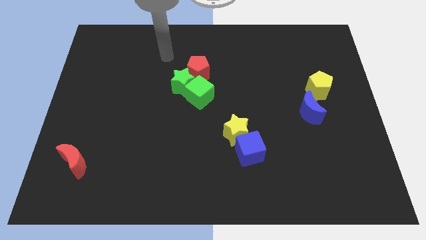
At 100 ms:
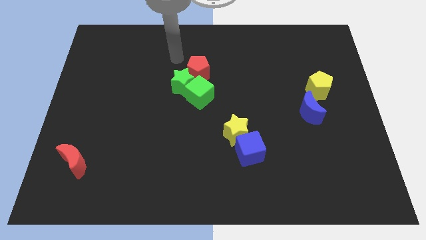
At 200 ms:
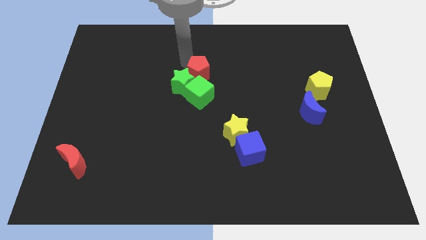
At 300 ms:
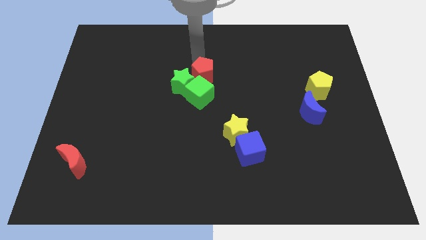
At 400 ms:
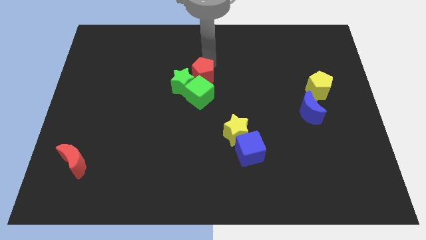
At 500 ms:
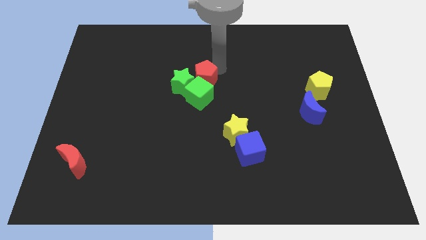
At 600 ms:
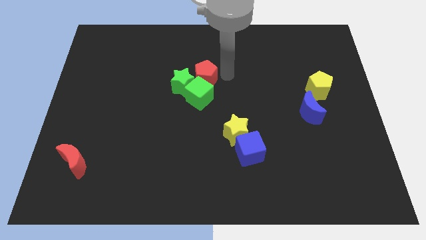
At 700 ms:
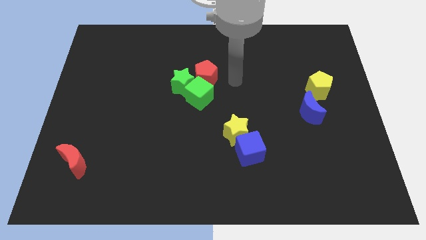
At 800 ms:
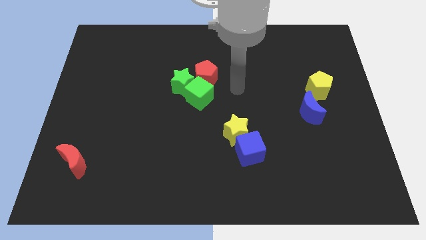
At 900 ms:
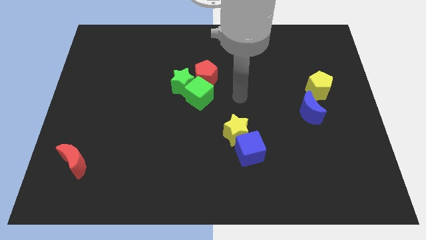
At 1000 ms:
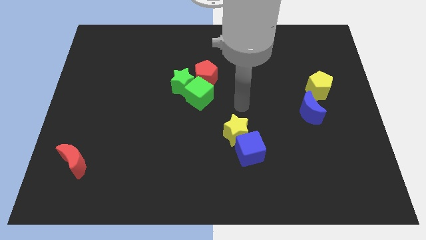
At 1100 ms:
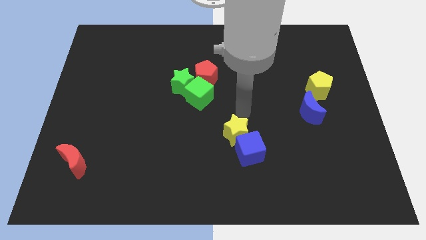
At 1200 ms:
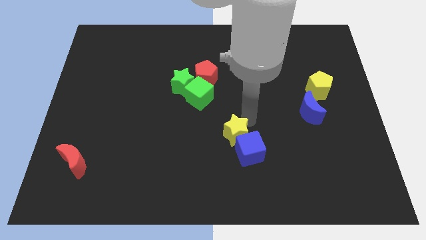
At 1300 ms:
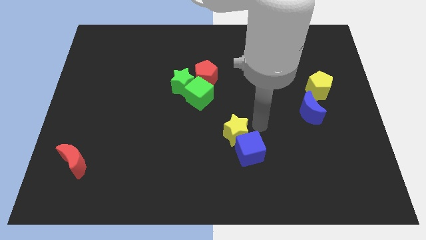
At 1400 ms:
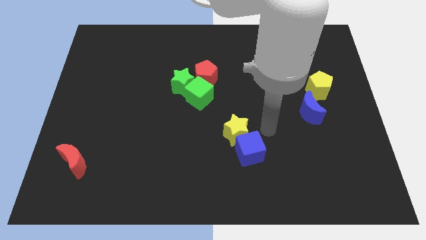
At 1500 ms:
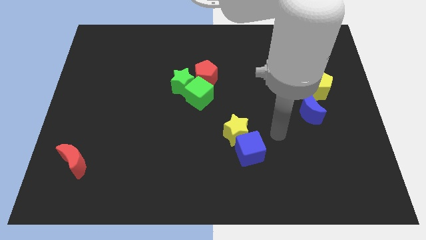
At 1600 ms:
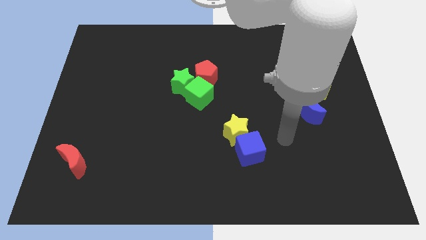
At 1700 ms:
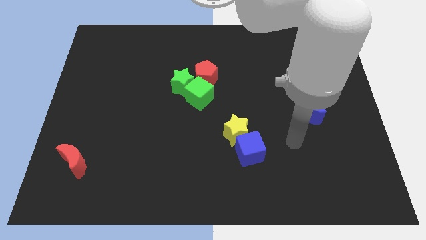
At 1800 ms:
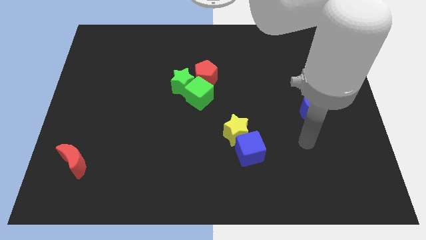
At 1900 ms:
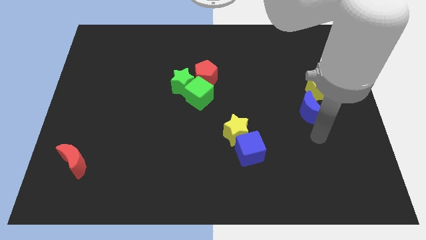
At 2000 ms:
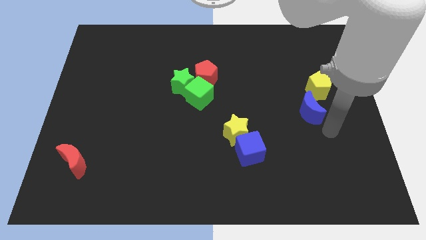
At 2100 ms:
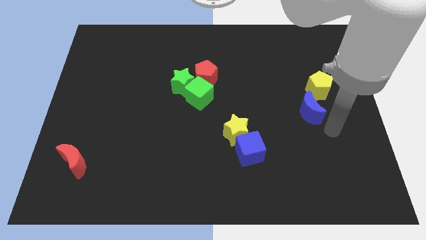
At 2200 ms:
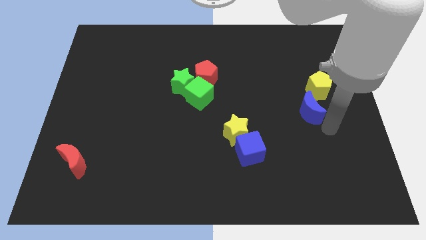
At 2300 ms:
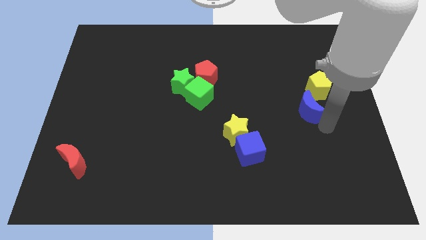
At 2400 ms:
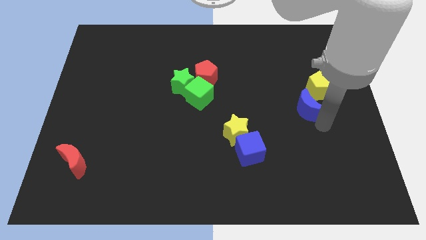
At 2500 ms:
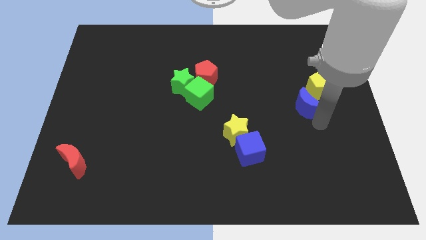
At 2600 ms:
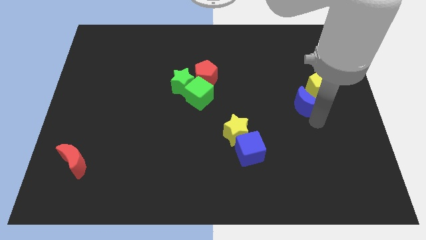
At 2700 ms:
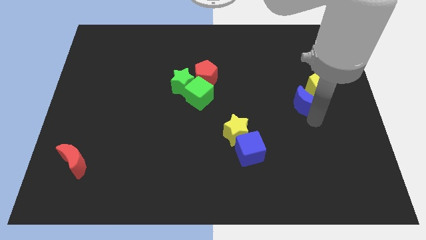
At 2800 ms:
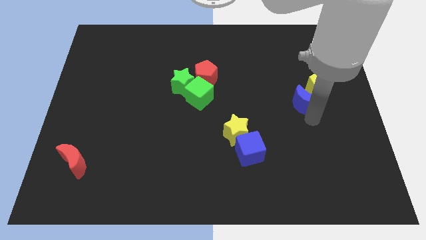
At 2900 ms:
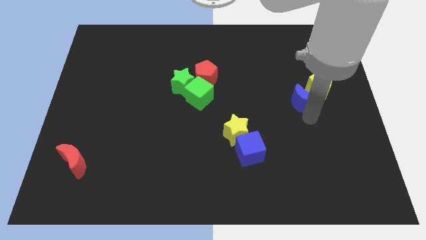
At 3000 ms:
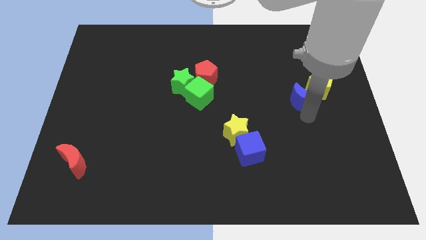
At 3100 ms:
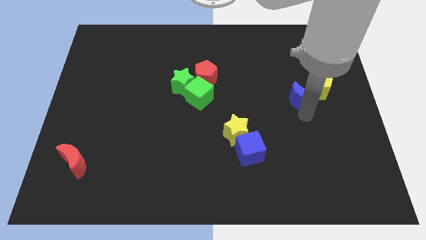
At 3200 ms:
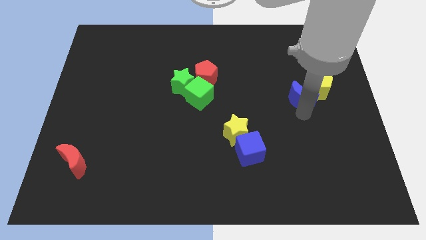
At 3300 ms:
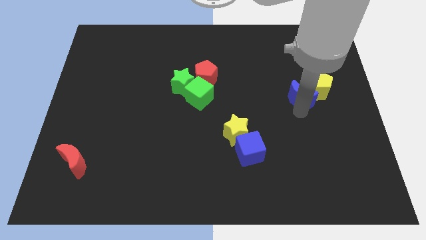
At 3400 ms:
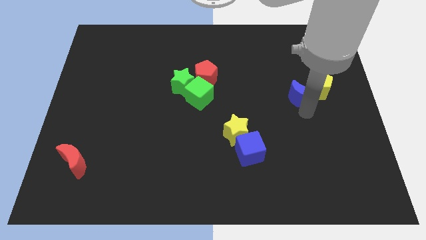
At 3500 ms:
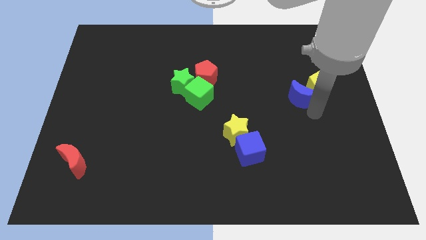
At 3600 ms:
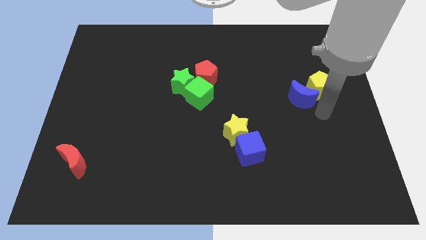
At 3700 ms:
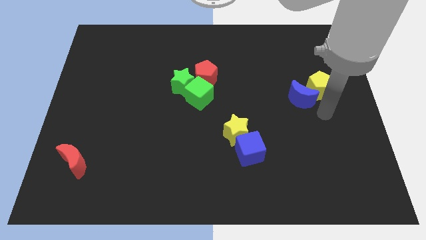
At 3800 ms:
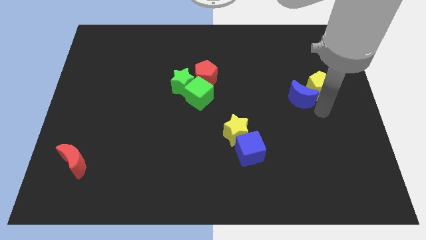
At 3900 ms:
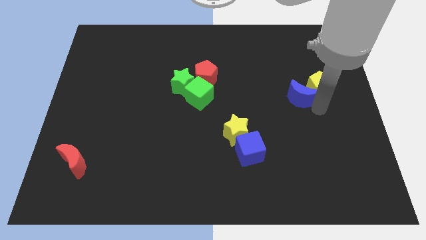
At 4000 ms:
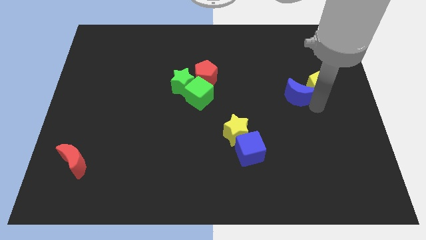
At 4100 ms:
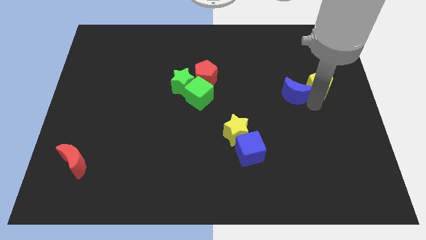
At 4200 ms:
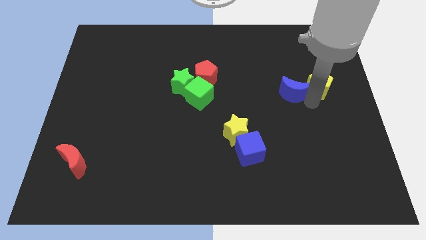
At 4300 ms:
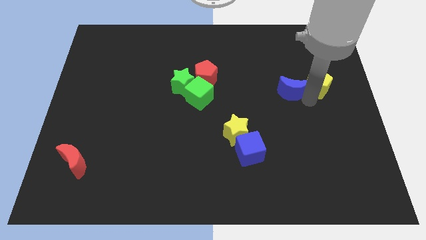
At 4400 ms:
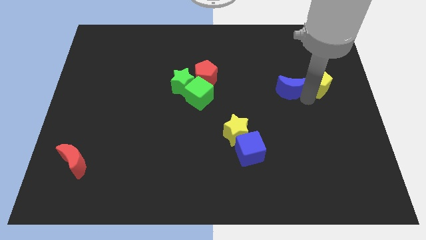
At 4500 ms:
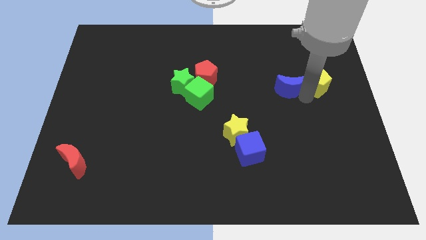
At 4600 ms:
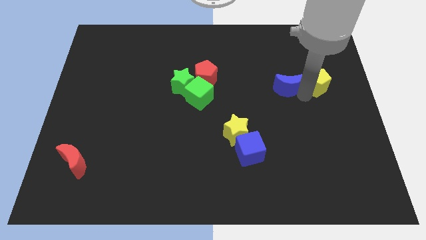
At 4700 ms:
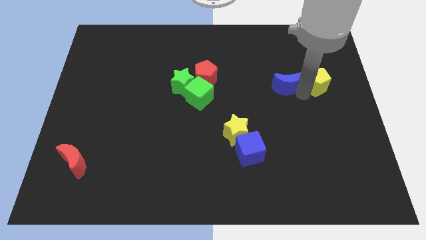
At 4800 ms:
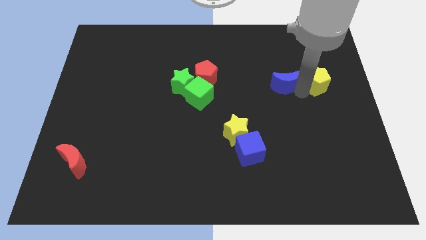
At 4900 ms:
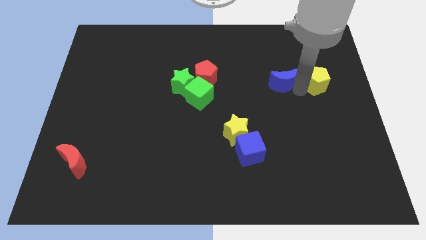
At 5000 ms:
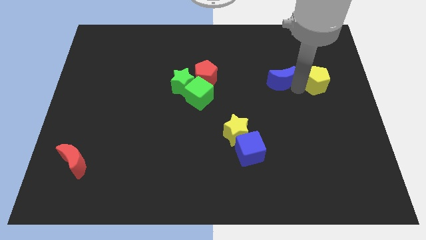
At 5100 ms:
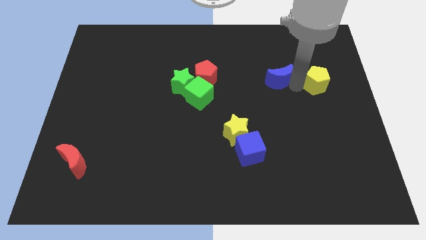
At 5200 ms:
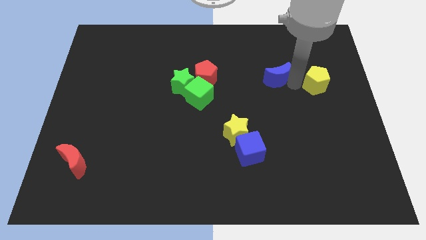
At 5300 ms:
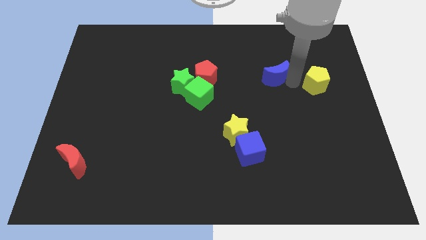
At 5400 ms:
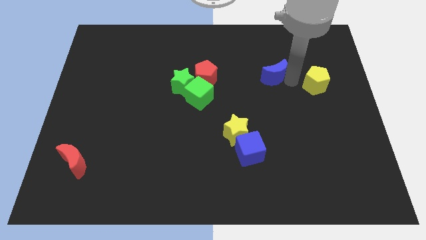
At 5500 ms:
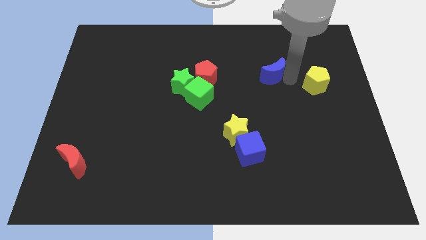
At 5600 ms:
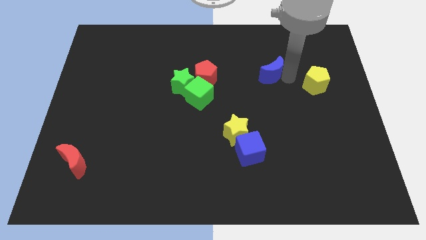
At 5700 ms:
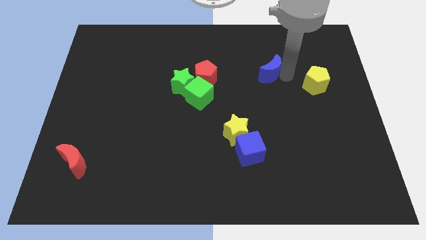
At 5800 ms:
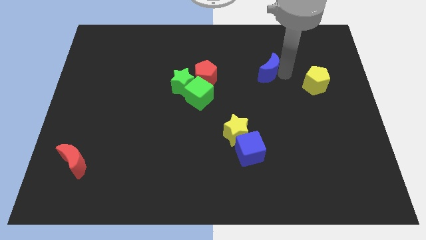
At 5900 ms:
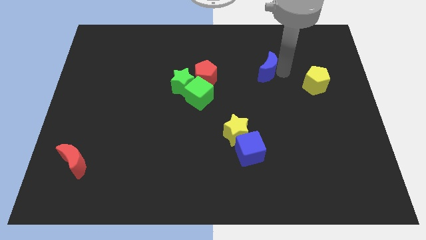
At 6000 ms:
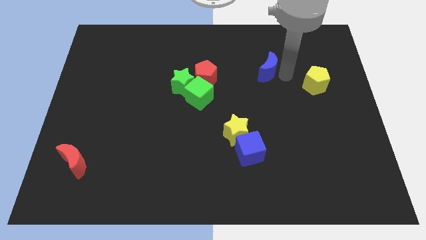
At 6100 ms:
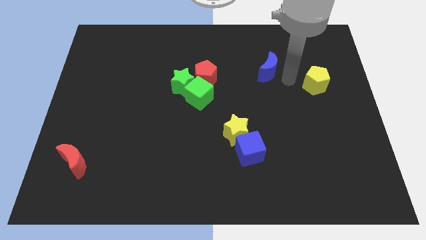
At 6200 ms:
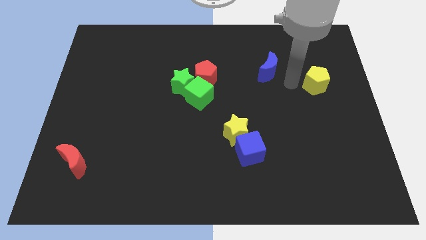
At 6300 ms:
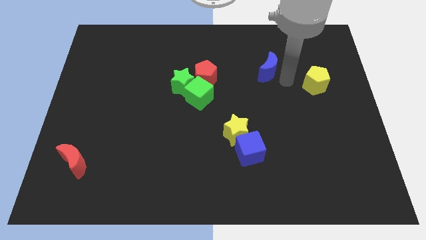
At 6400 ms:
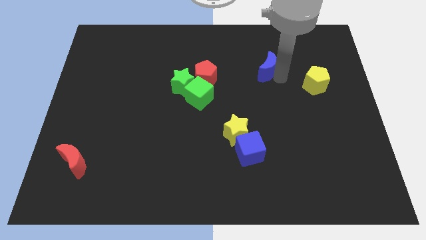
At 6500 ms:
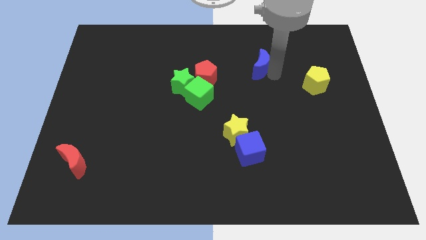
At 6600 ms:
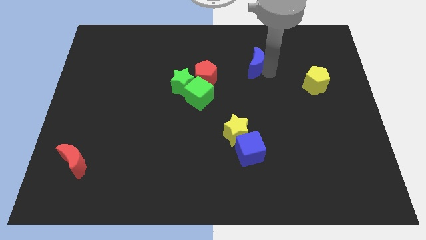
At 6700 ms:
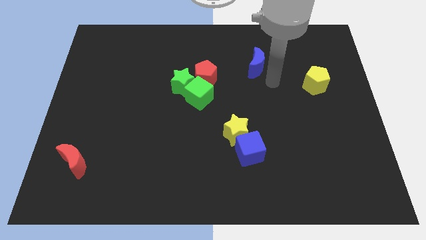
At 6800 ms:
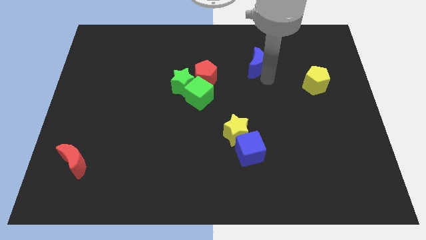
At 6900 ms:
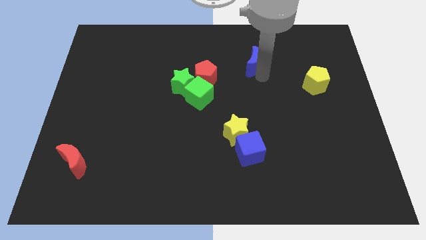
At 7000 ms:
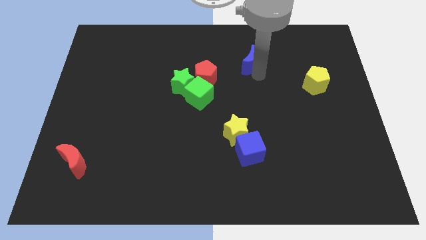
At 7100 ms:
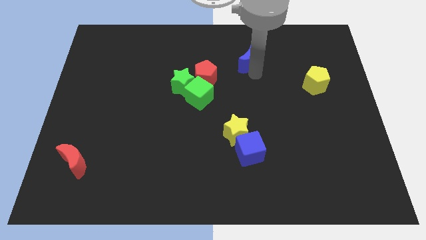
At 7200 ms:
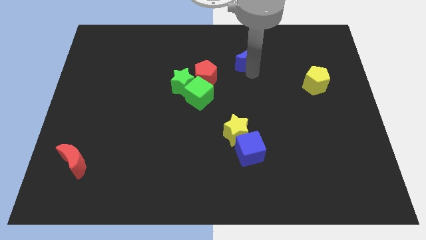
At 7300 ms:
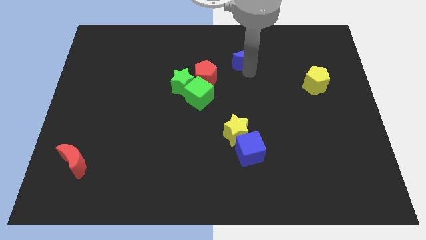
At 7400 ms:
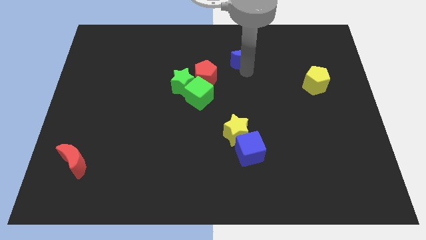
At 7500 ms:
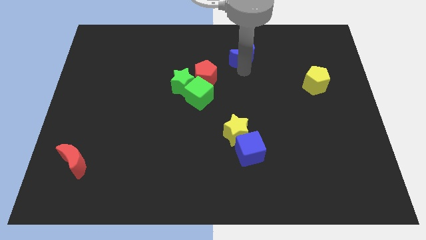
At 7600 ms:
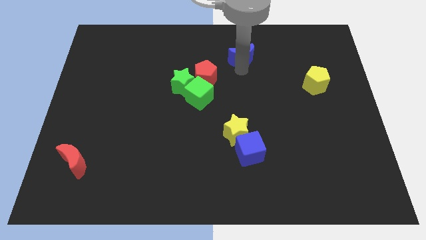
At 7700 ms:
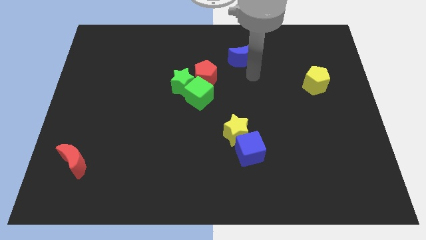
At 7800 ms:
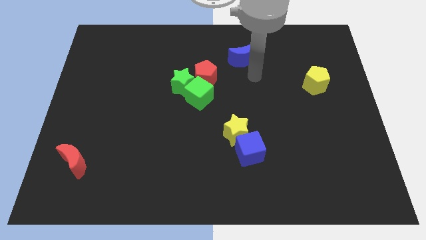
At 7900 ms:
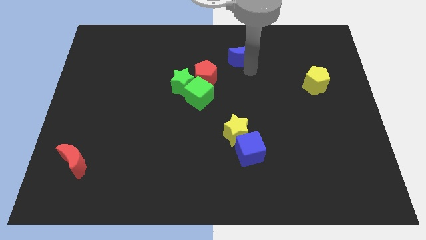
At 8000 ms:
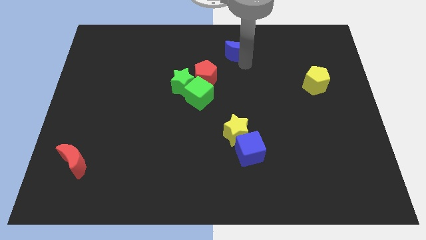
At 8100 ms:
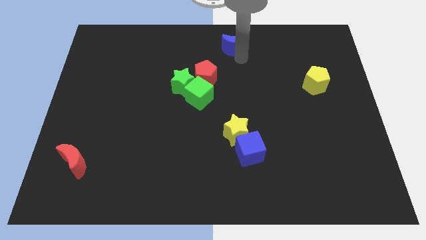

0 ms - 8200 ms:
slide the blue moon to the top
